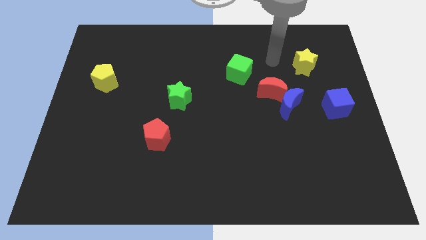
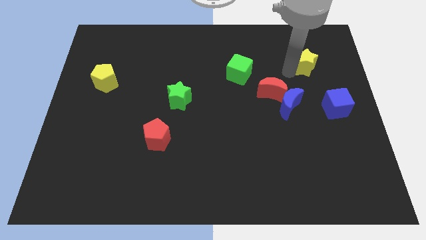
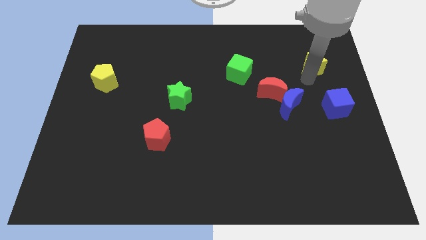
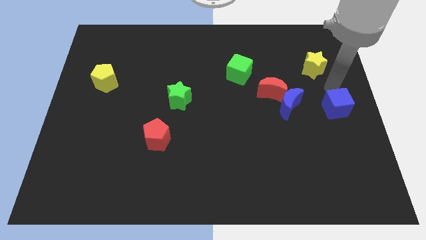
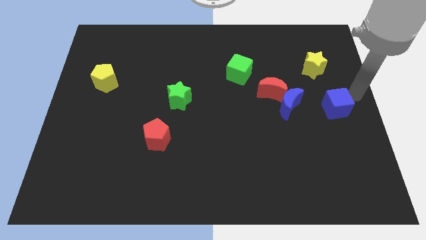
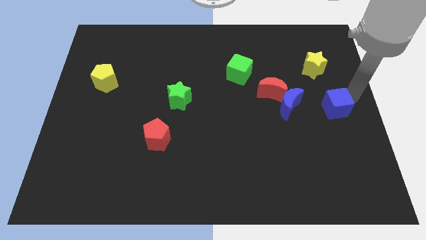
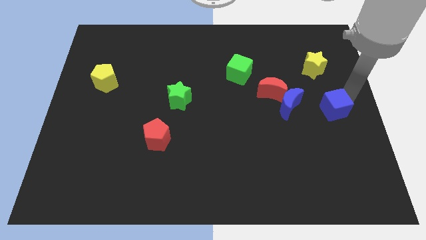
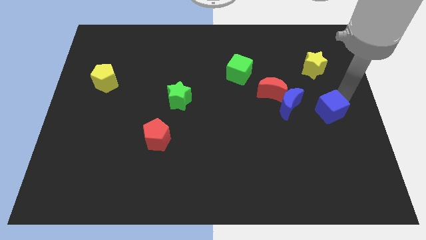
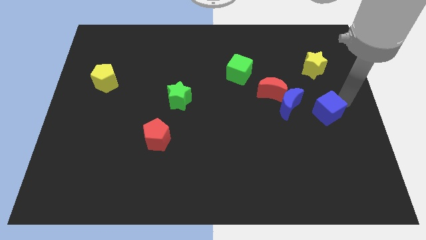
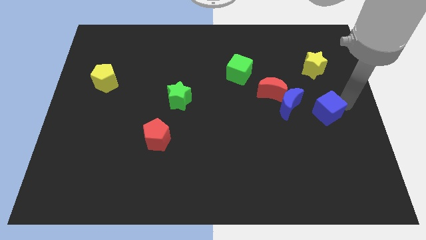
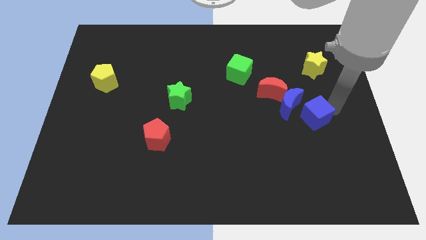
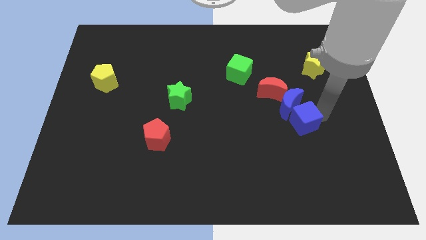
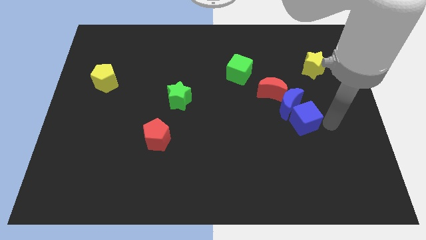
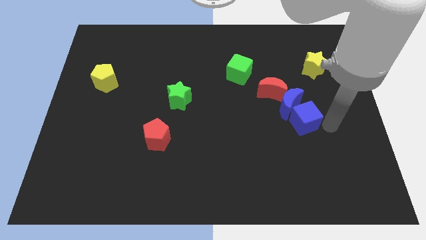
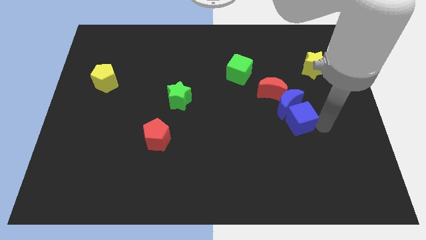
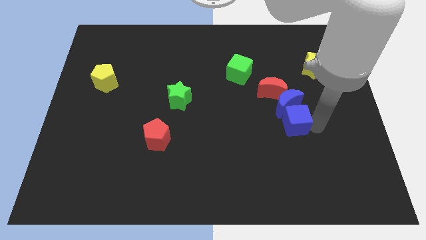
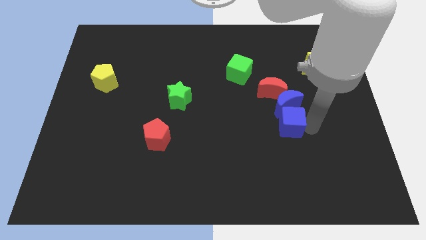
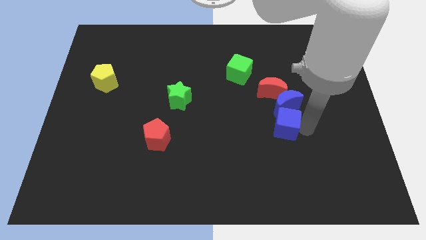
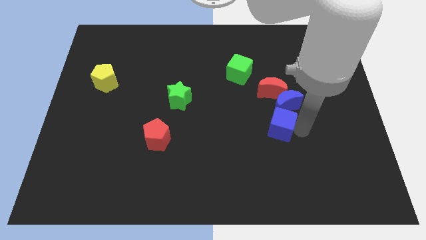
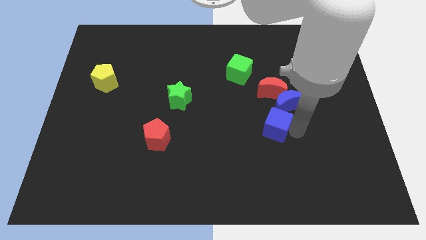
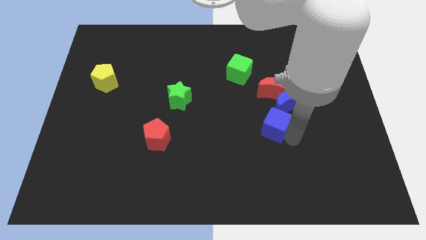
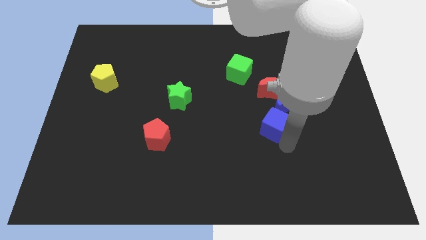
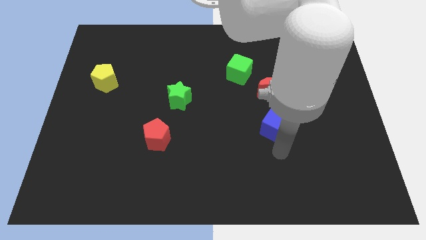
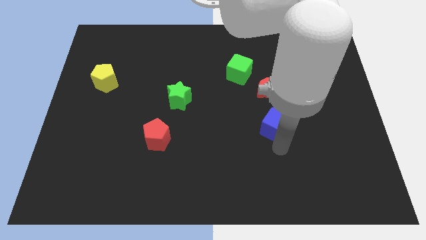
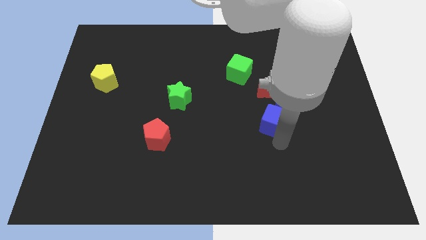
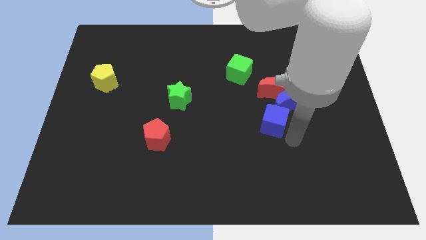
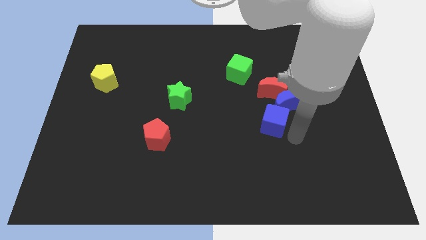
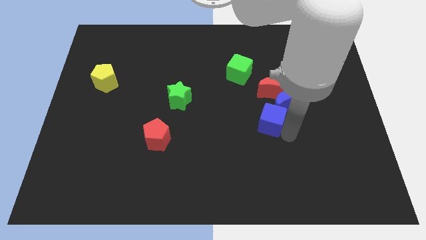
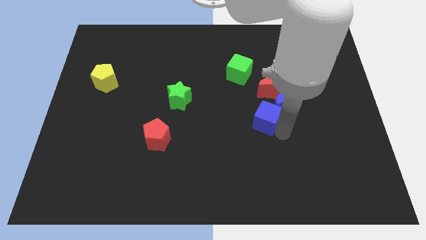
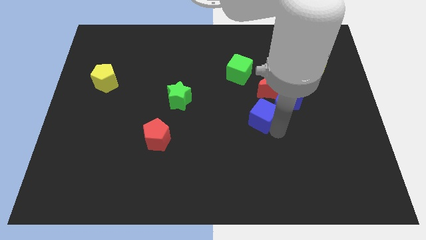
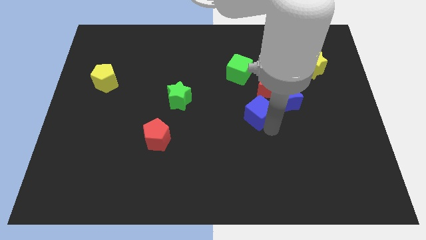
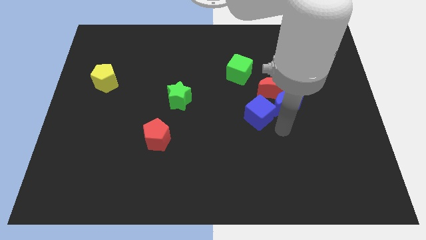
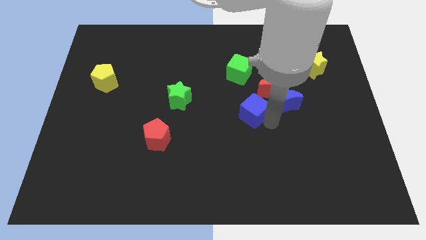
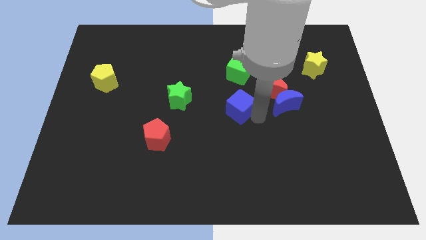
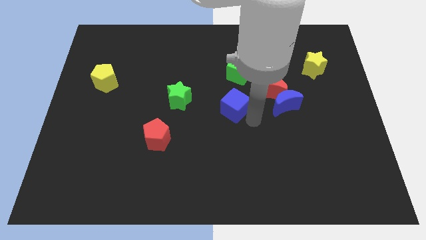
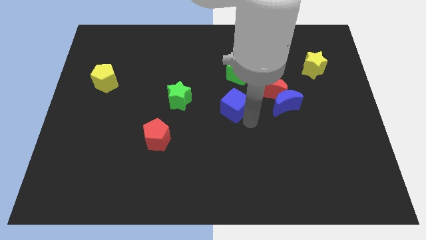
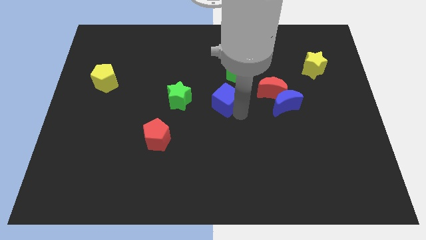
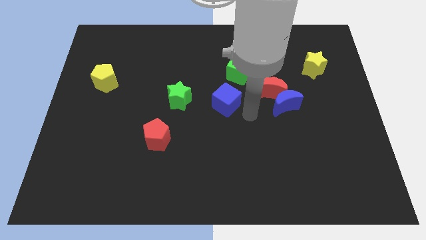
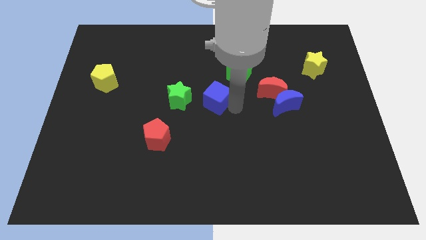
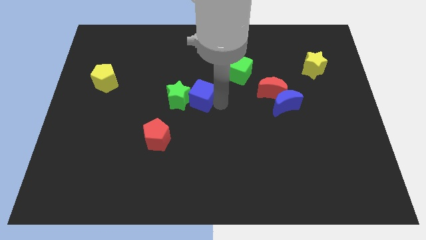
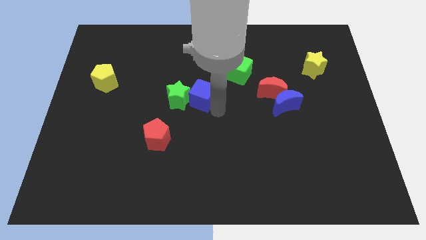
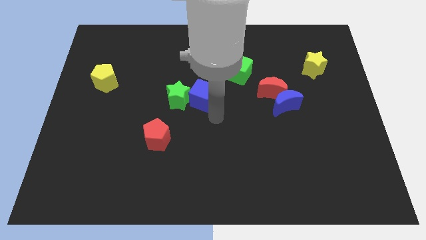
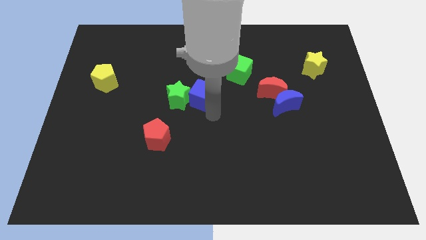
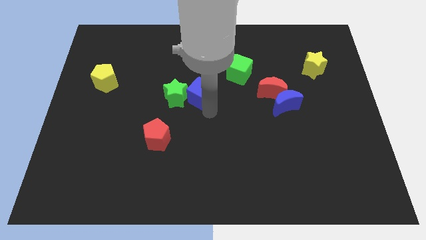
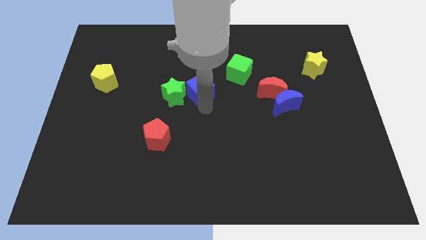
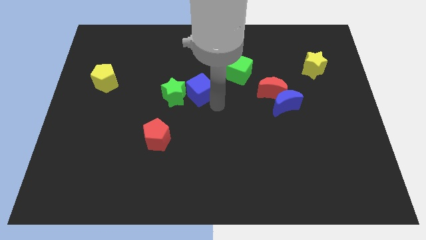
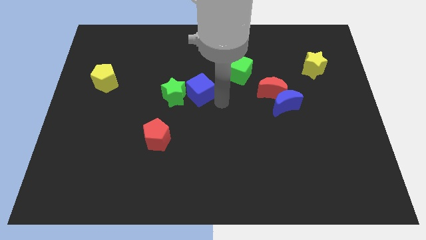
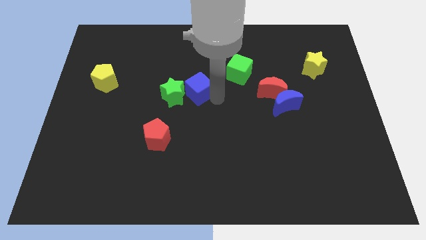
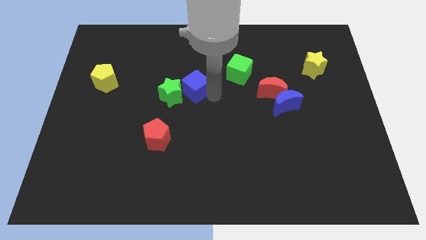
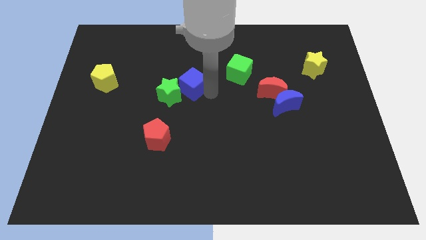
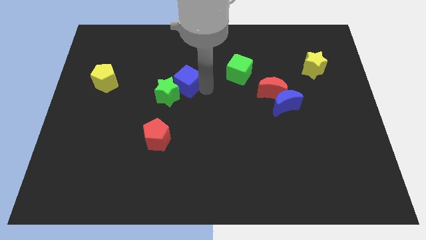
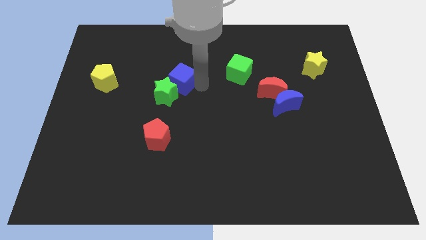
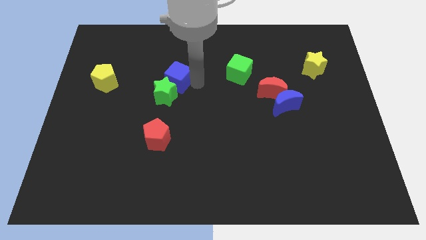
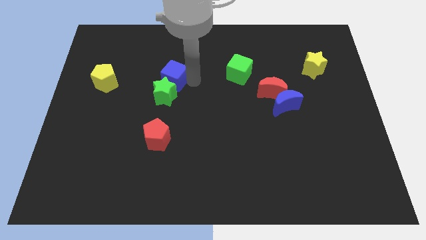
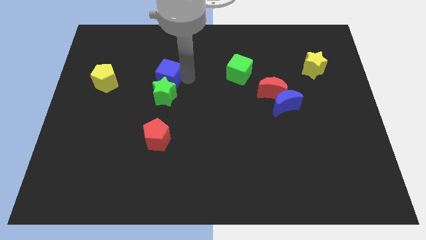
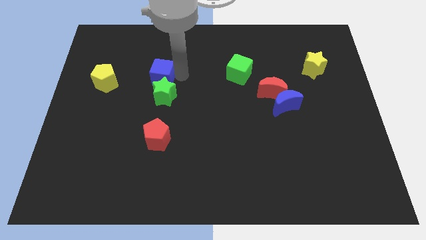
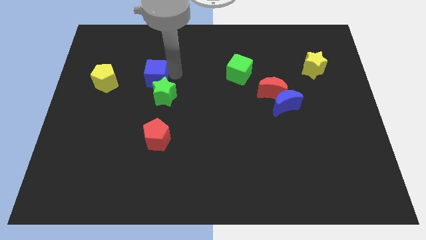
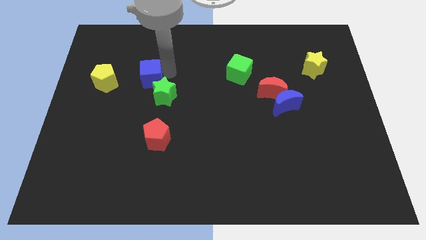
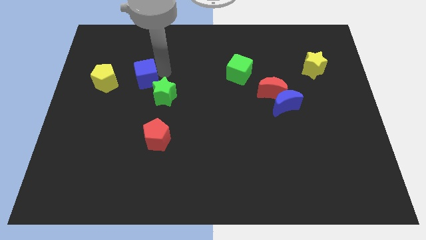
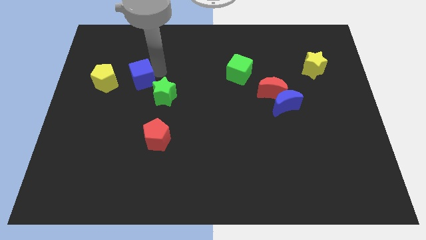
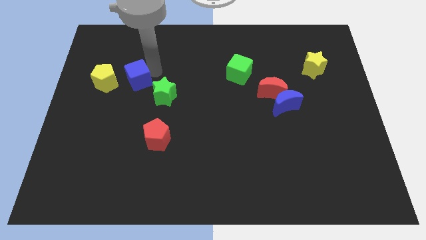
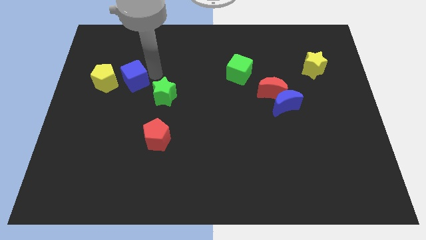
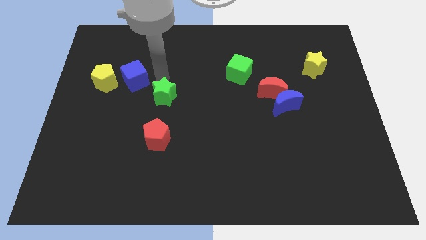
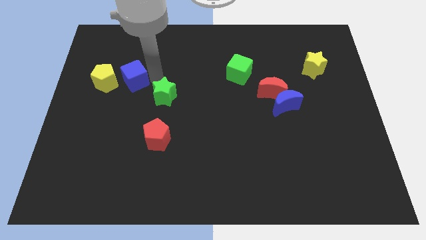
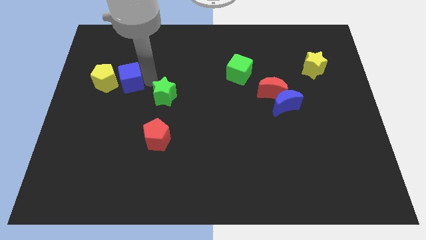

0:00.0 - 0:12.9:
put the blue cube close to the yellow pentagon

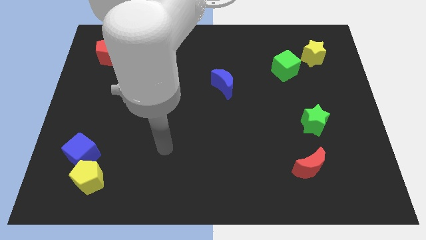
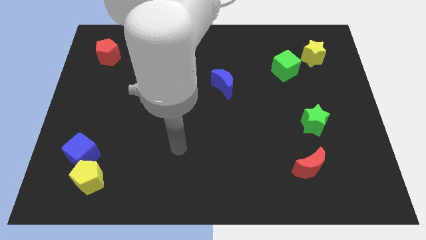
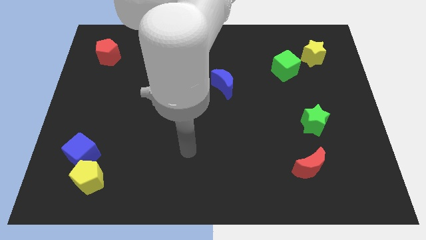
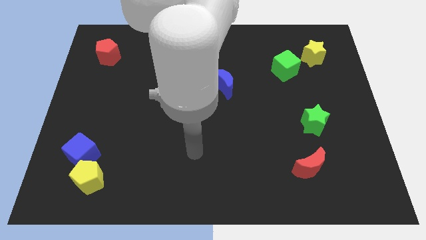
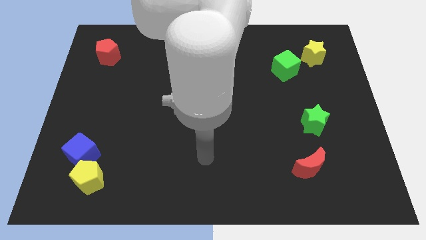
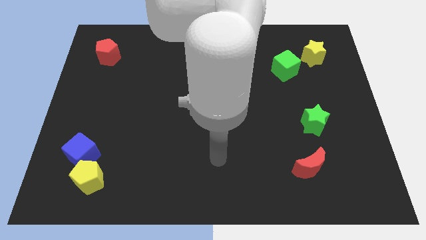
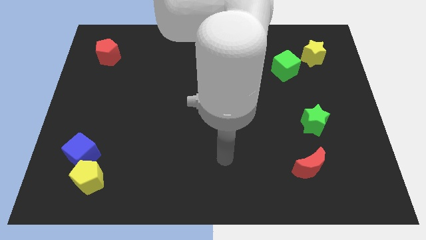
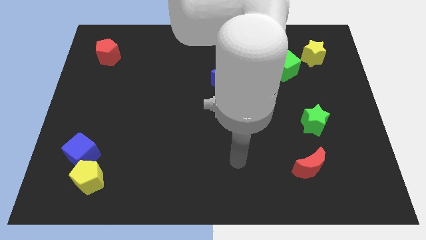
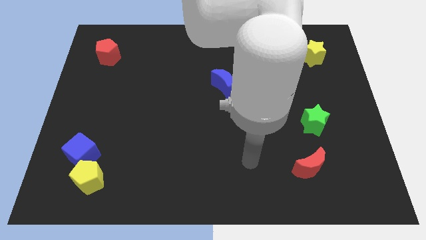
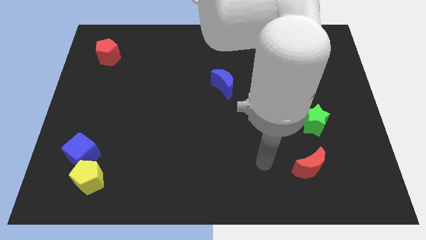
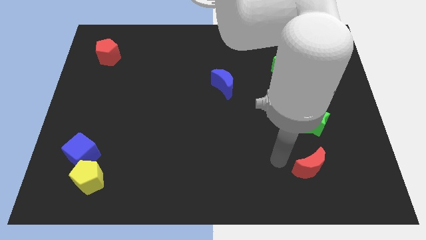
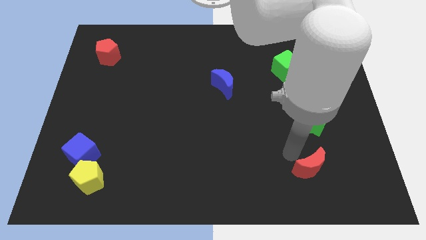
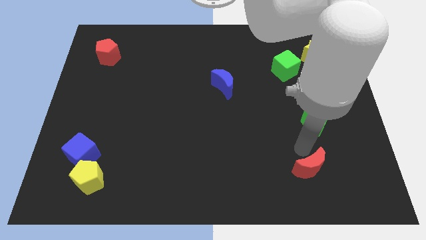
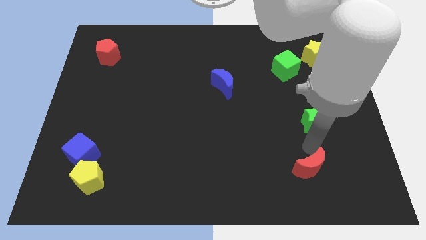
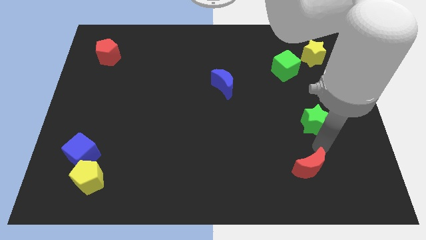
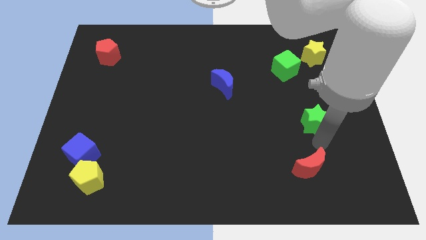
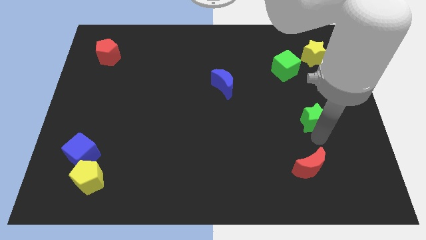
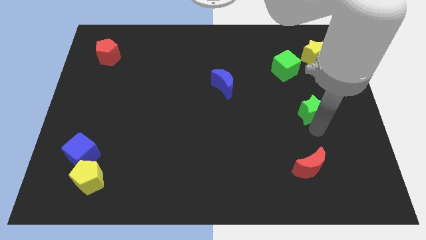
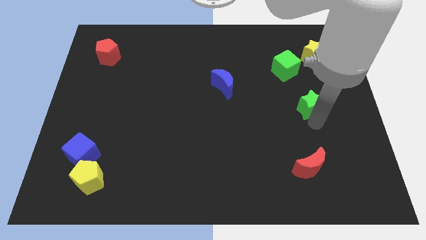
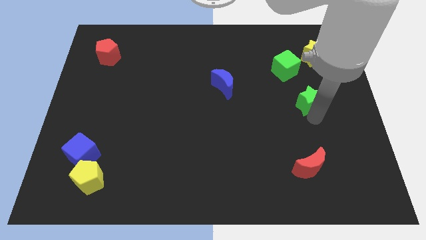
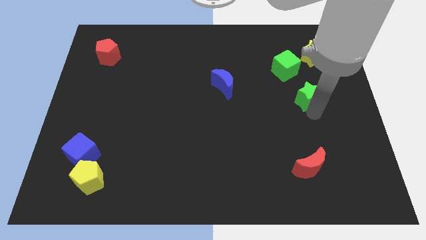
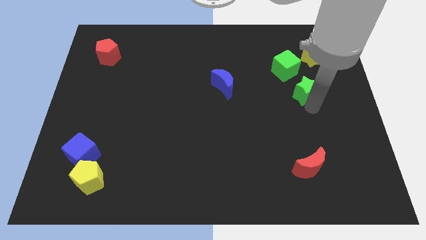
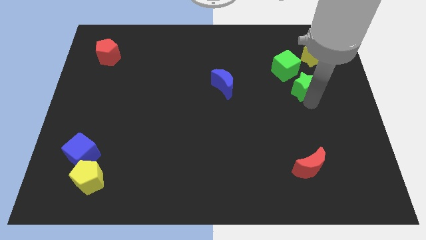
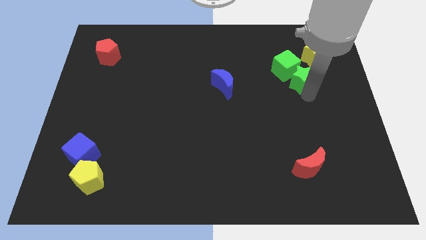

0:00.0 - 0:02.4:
slide the green star next to the green cube
